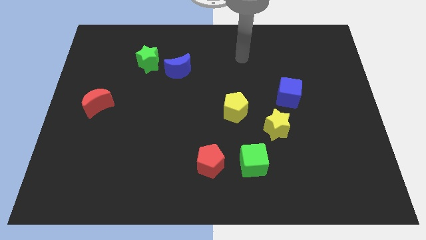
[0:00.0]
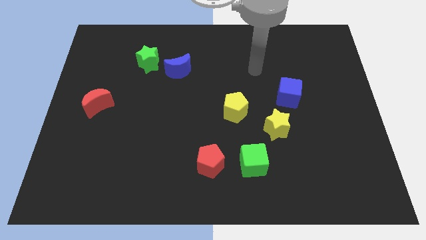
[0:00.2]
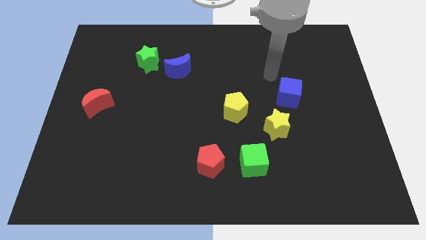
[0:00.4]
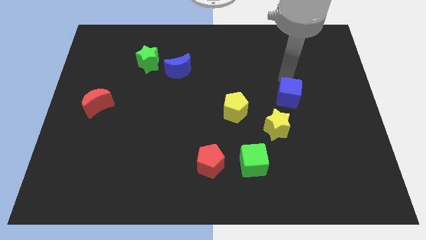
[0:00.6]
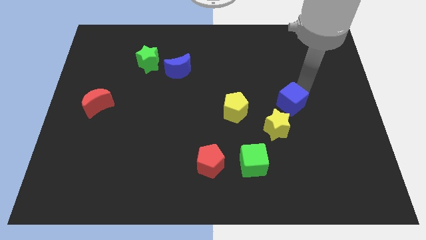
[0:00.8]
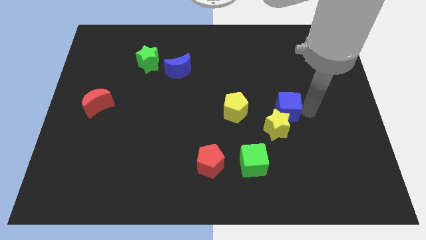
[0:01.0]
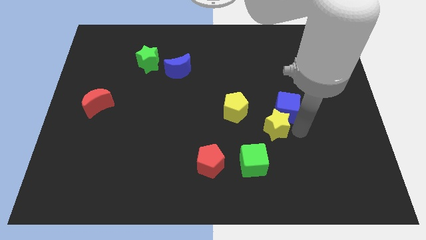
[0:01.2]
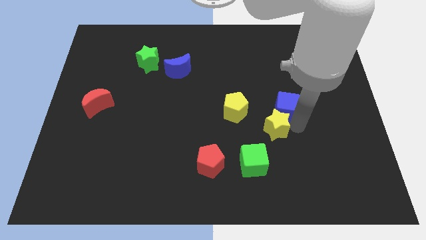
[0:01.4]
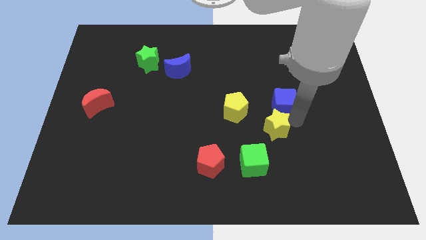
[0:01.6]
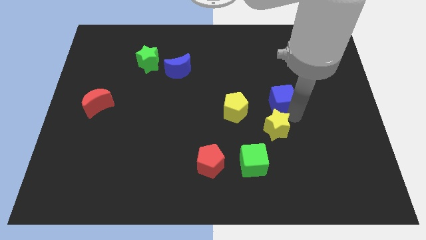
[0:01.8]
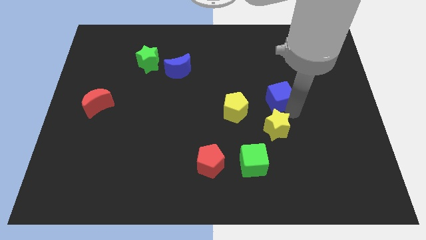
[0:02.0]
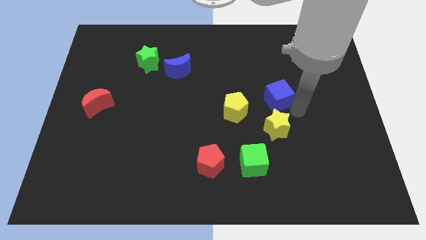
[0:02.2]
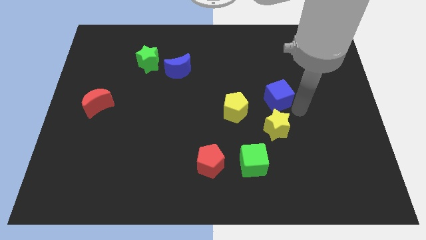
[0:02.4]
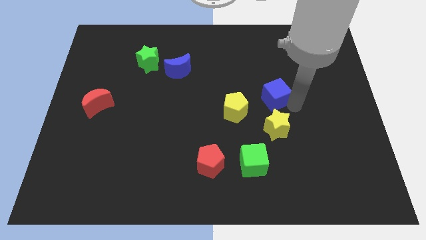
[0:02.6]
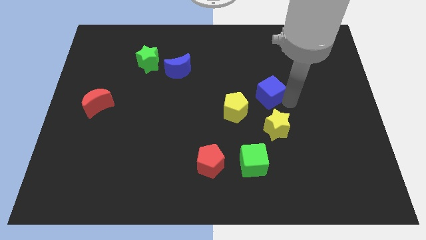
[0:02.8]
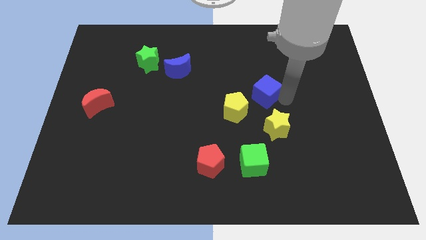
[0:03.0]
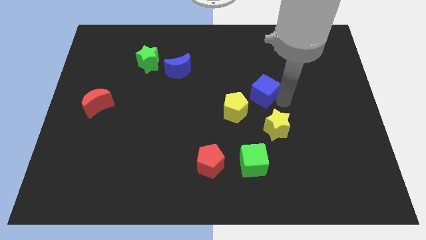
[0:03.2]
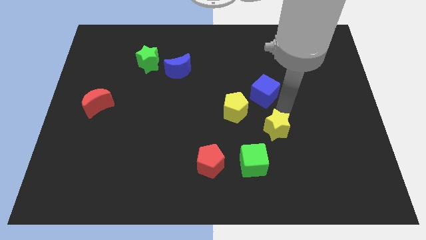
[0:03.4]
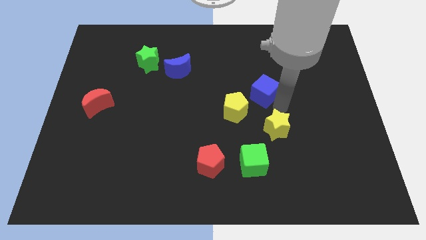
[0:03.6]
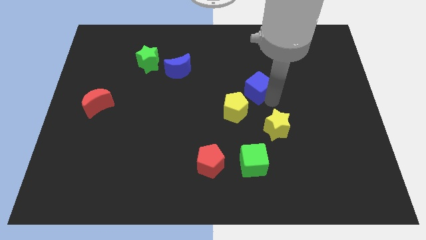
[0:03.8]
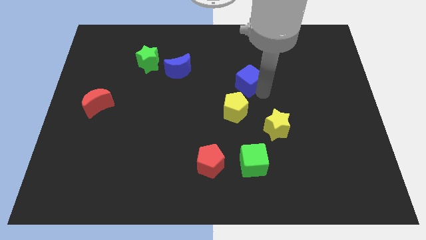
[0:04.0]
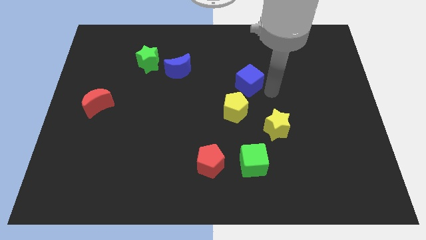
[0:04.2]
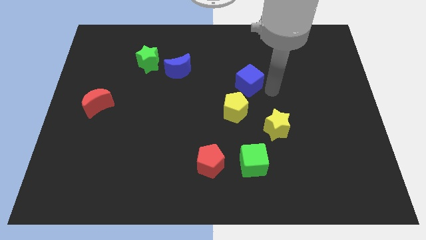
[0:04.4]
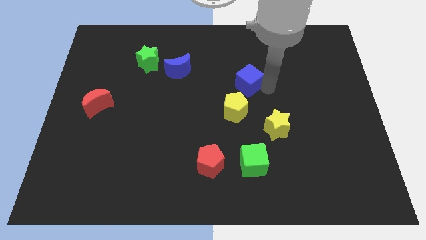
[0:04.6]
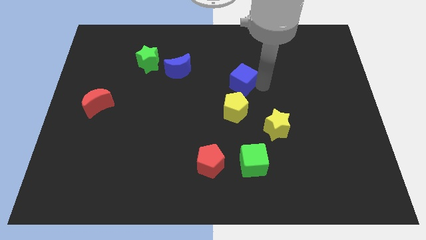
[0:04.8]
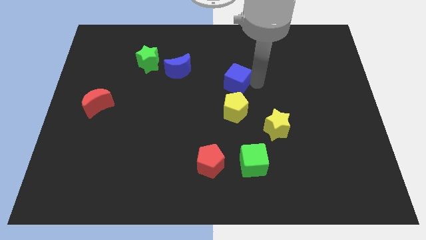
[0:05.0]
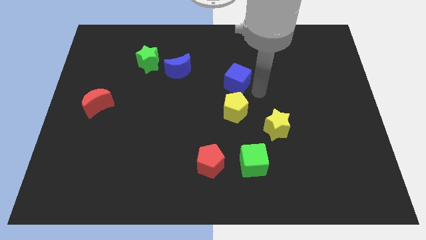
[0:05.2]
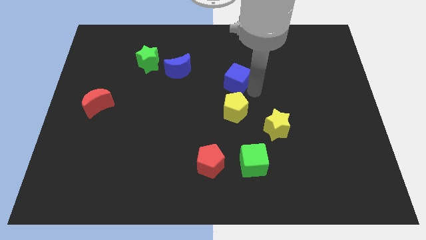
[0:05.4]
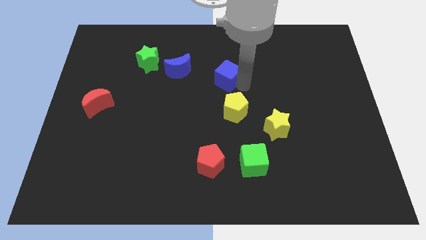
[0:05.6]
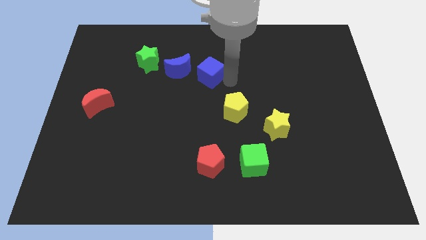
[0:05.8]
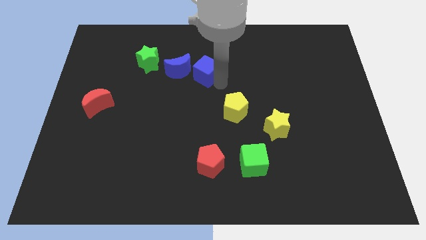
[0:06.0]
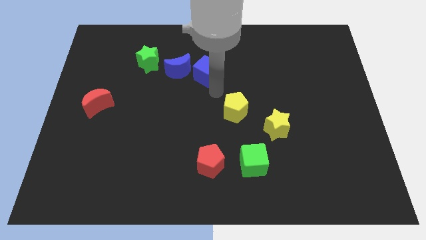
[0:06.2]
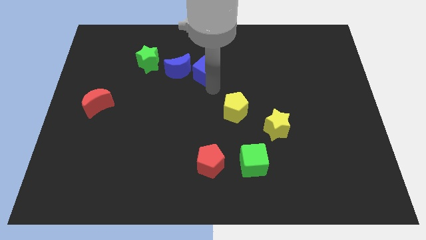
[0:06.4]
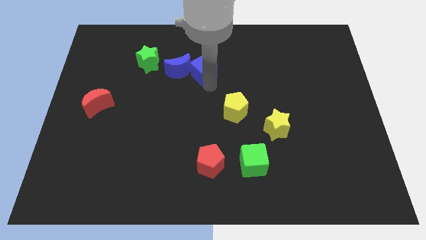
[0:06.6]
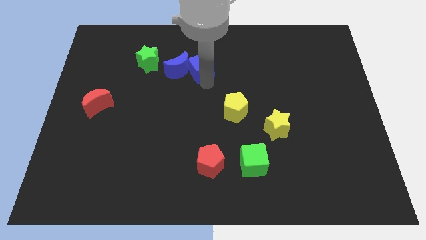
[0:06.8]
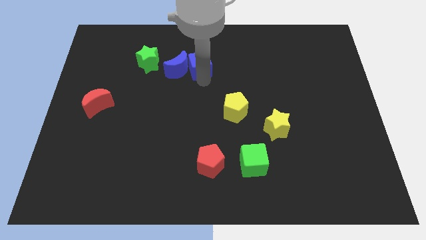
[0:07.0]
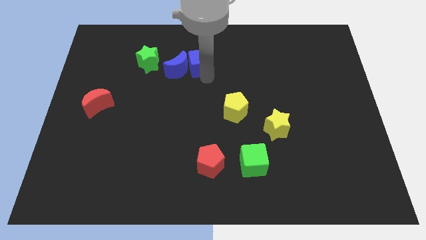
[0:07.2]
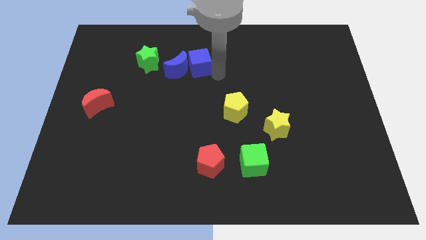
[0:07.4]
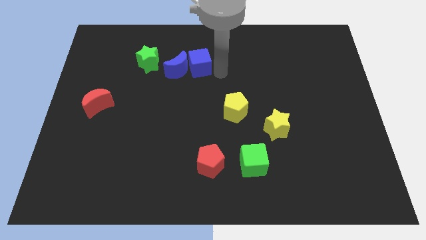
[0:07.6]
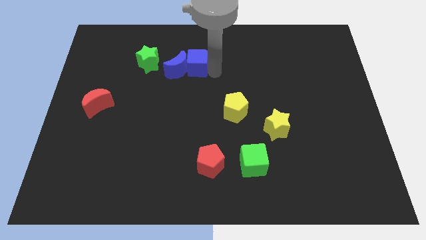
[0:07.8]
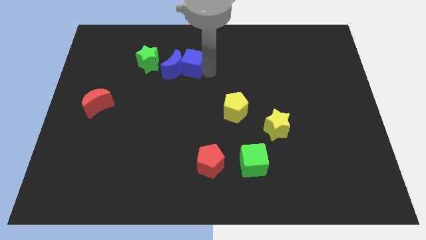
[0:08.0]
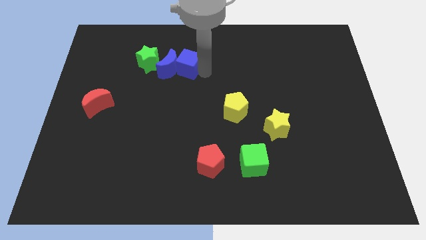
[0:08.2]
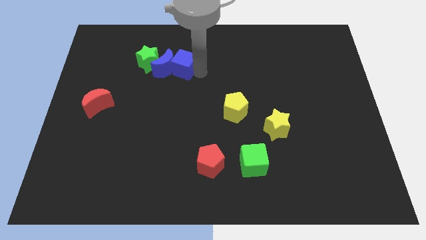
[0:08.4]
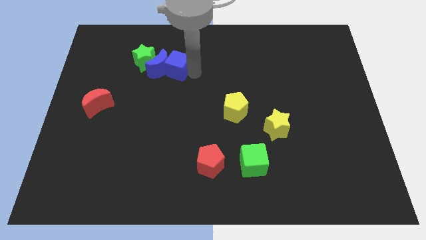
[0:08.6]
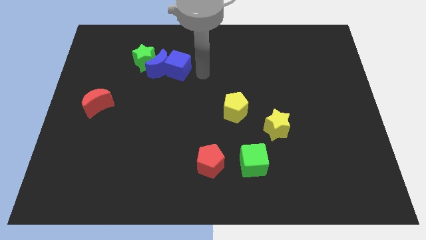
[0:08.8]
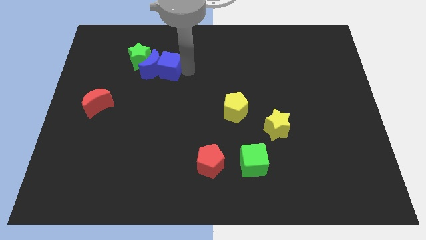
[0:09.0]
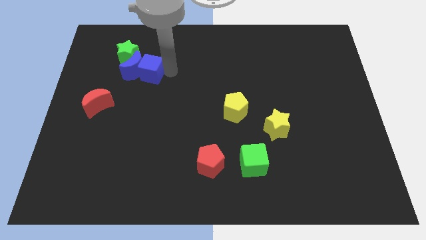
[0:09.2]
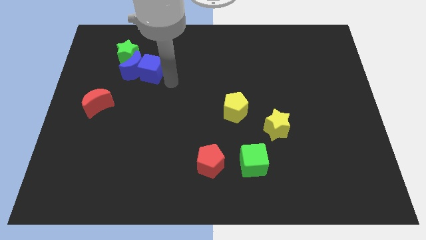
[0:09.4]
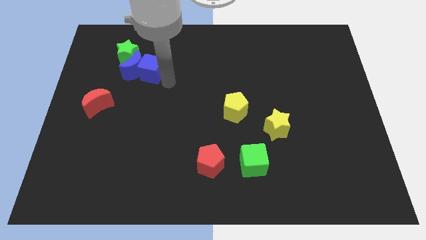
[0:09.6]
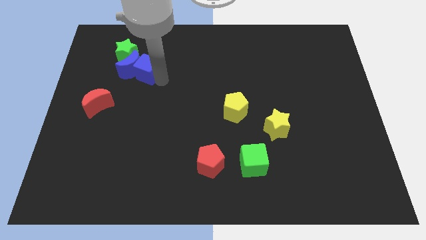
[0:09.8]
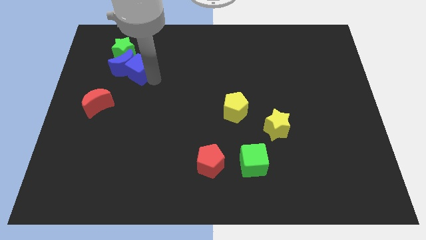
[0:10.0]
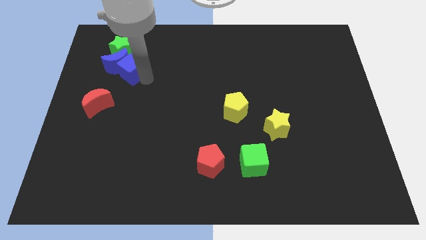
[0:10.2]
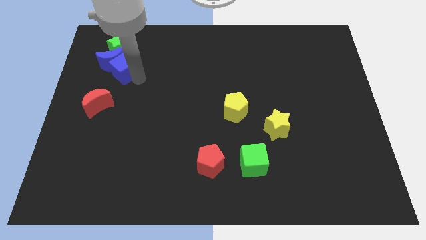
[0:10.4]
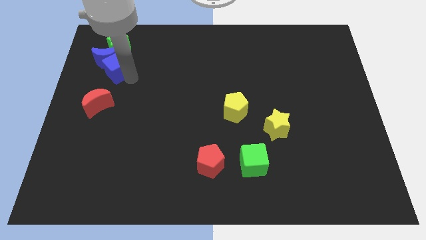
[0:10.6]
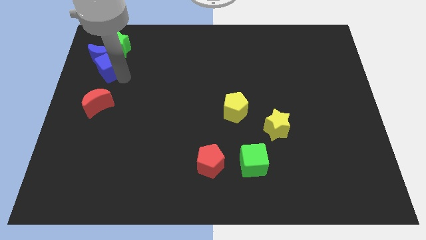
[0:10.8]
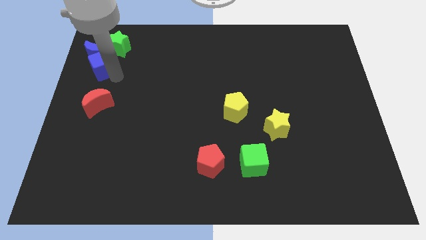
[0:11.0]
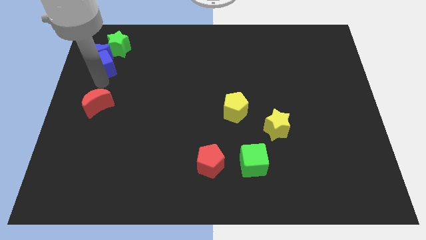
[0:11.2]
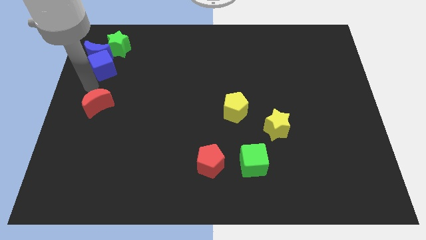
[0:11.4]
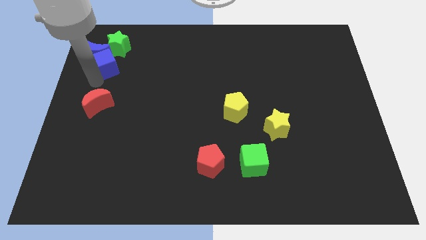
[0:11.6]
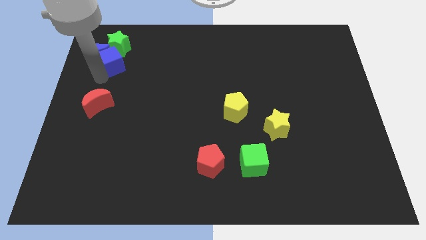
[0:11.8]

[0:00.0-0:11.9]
push the blue cube towards the green star

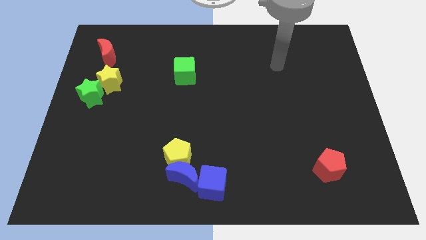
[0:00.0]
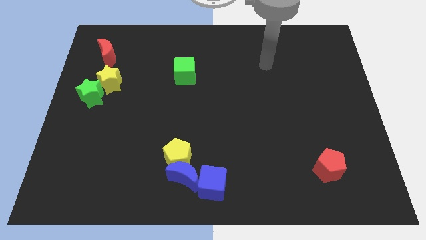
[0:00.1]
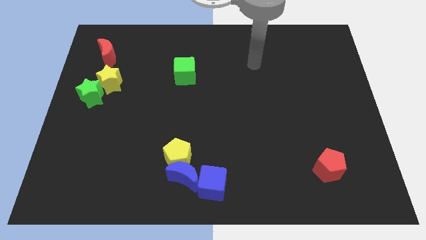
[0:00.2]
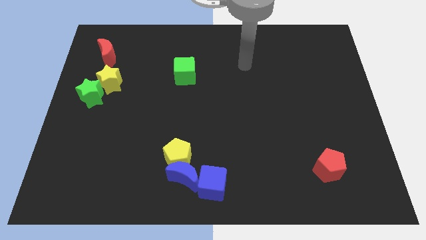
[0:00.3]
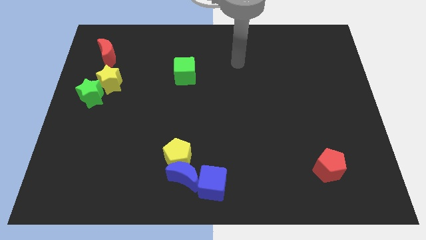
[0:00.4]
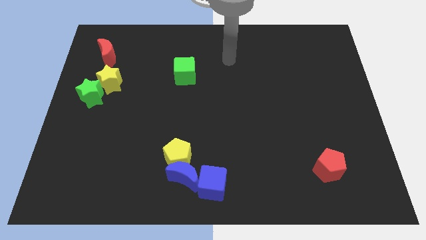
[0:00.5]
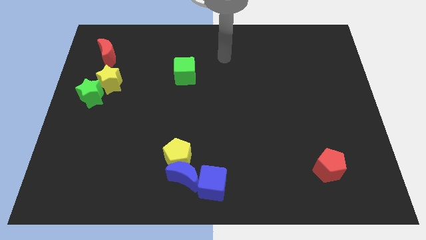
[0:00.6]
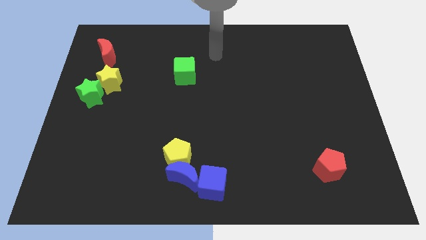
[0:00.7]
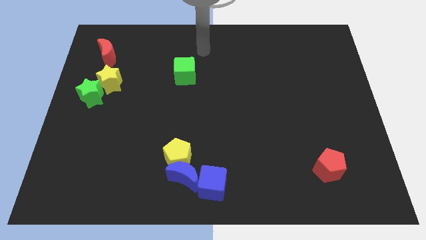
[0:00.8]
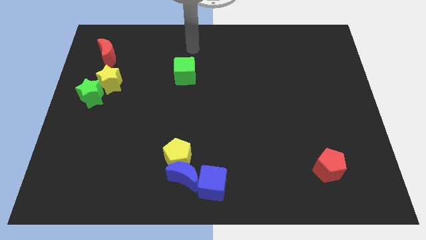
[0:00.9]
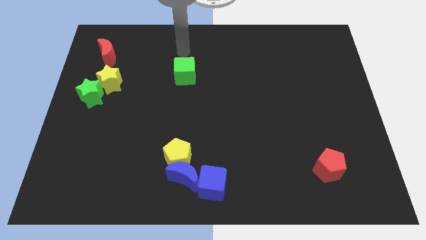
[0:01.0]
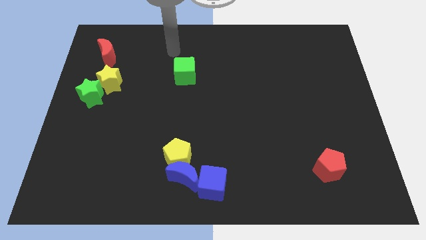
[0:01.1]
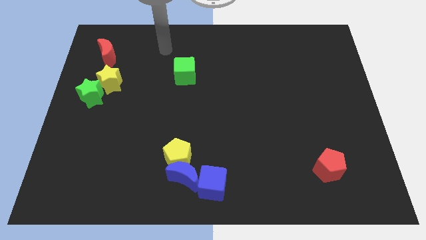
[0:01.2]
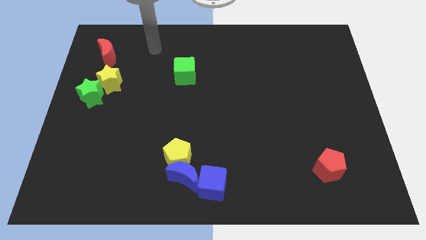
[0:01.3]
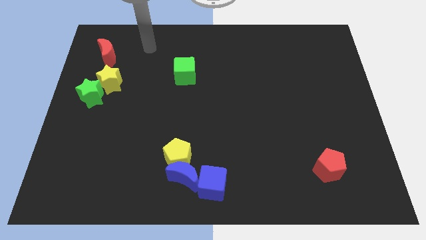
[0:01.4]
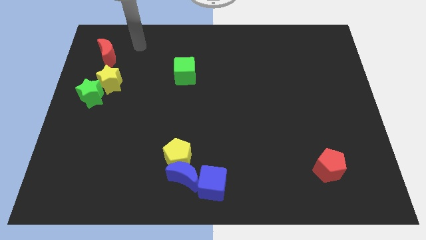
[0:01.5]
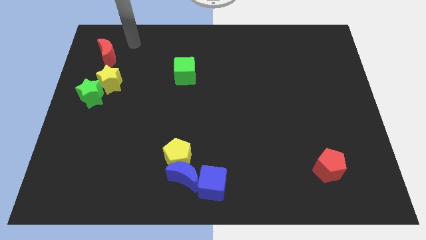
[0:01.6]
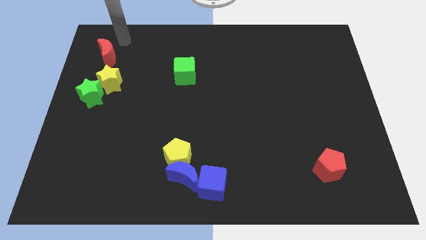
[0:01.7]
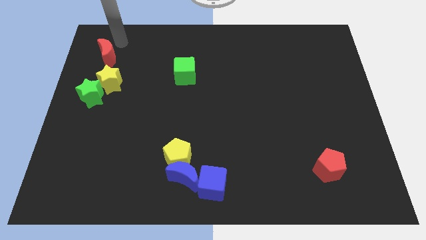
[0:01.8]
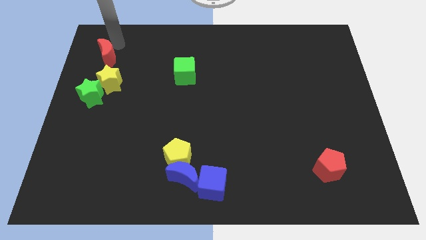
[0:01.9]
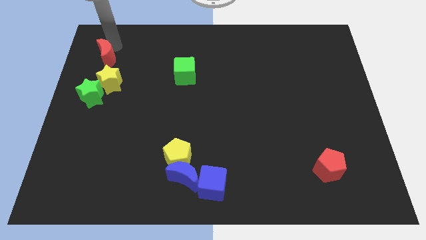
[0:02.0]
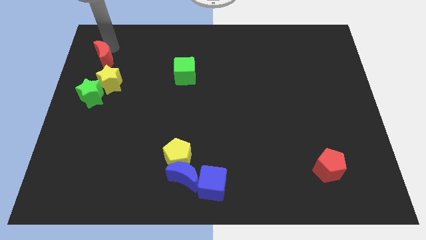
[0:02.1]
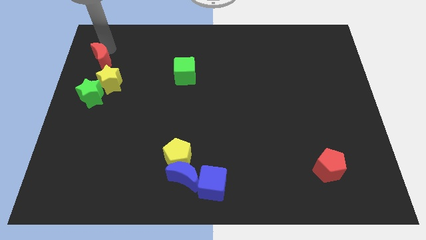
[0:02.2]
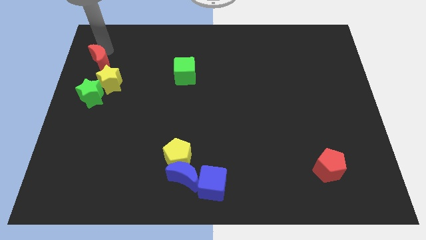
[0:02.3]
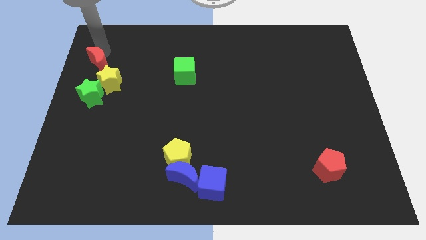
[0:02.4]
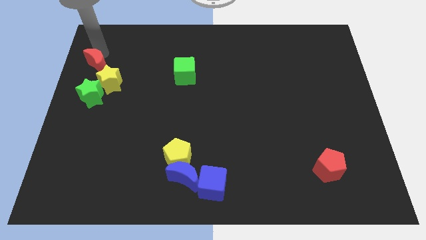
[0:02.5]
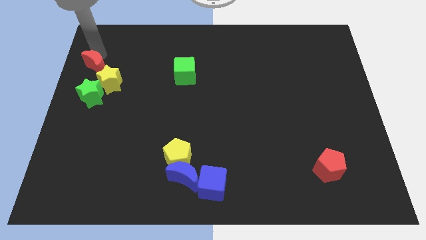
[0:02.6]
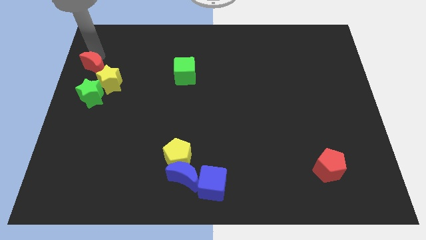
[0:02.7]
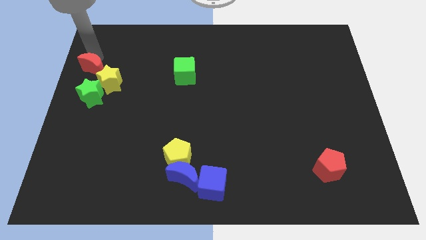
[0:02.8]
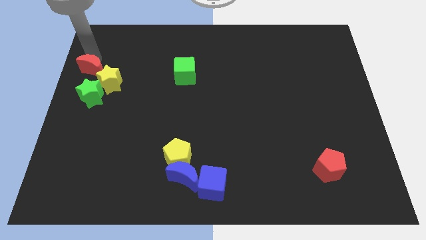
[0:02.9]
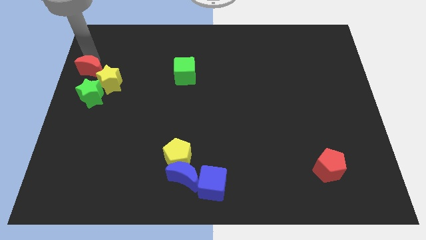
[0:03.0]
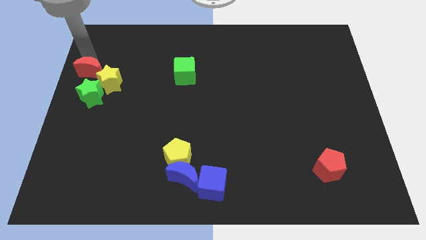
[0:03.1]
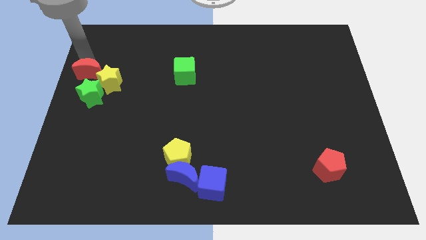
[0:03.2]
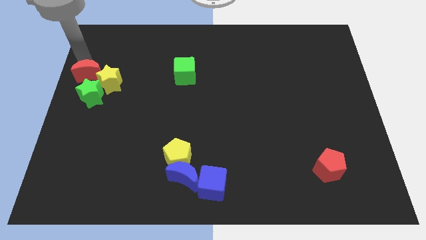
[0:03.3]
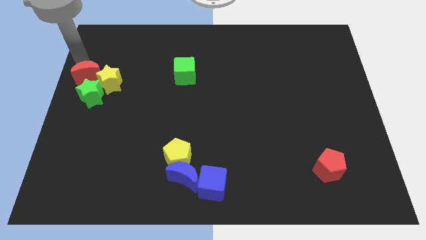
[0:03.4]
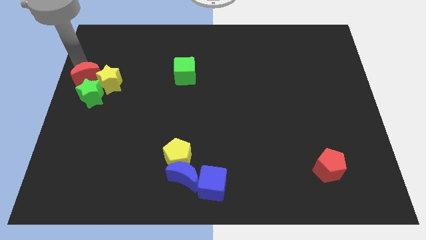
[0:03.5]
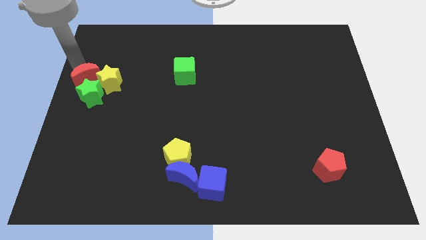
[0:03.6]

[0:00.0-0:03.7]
slide the red moon next to the green star
